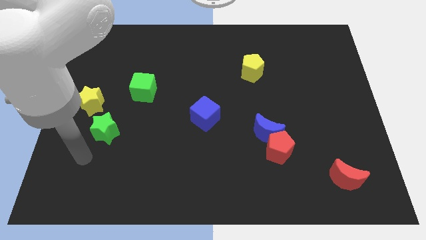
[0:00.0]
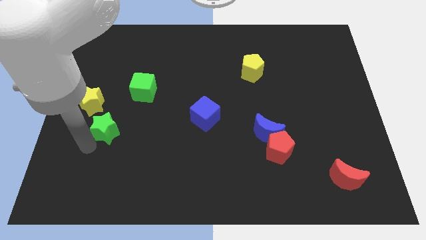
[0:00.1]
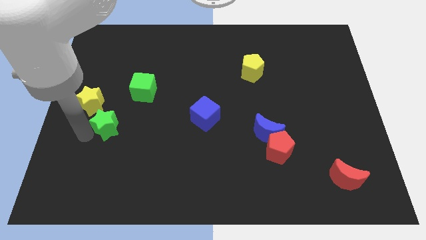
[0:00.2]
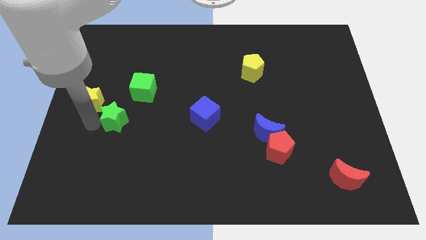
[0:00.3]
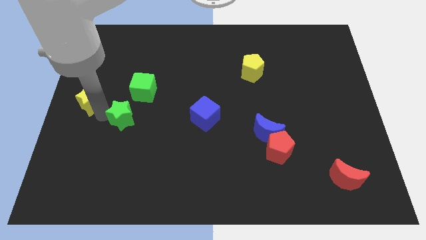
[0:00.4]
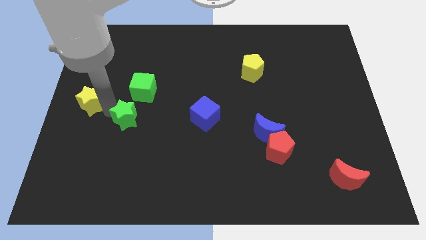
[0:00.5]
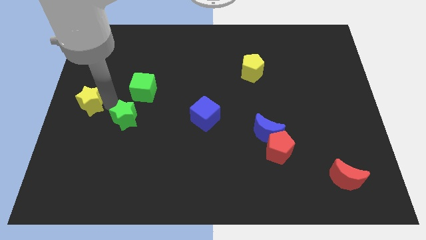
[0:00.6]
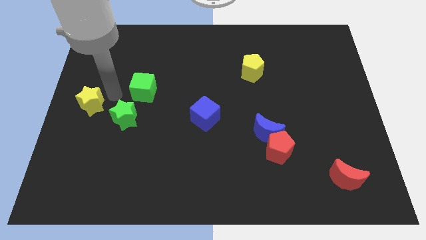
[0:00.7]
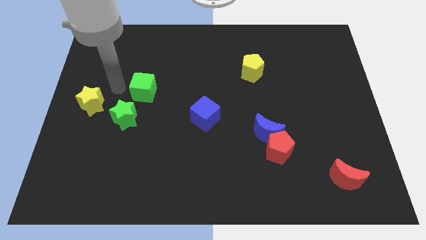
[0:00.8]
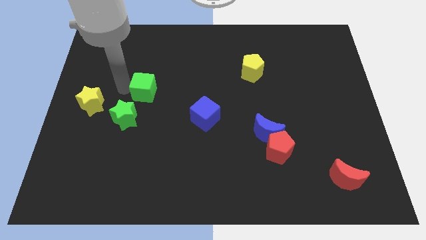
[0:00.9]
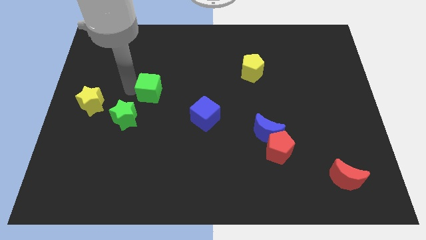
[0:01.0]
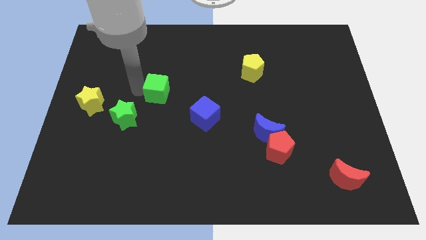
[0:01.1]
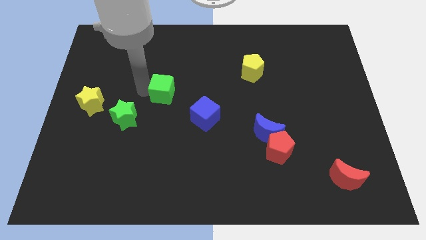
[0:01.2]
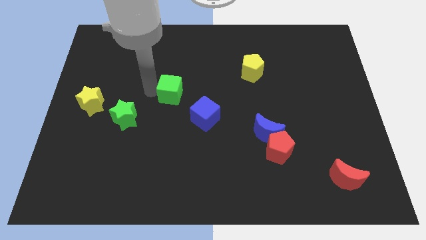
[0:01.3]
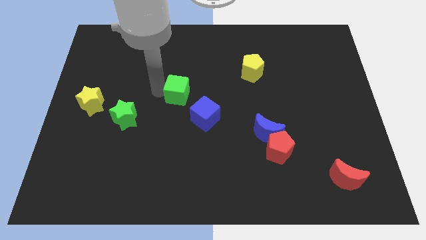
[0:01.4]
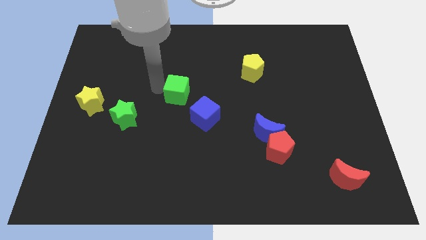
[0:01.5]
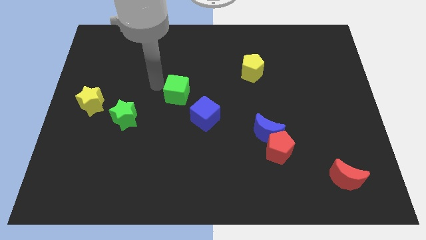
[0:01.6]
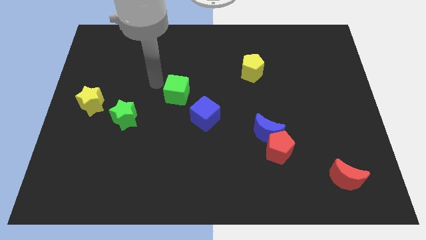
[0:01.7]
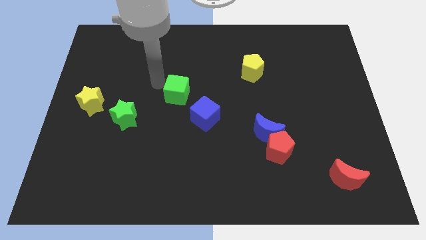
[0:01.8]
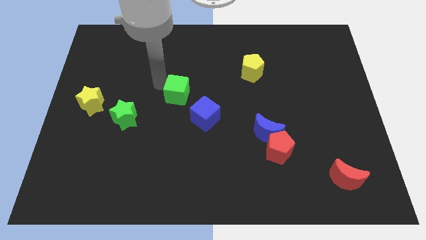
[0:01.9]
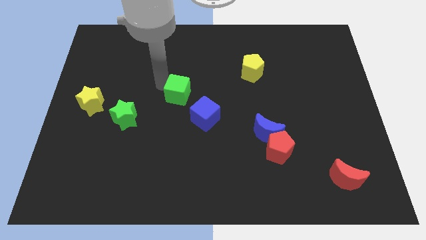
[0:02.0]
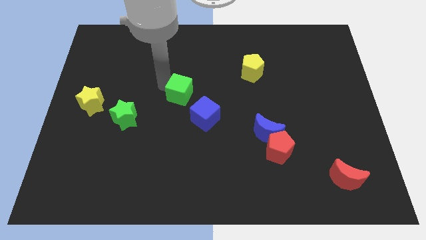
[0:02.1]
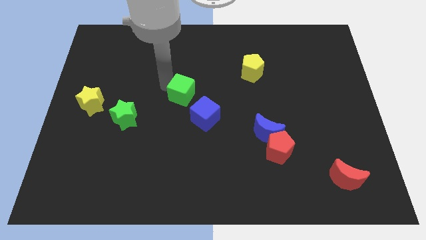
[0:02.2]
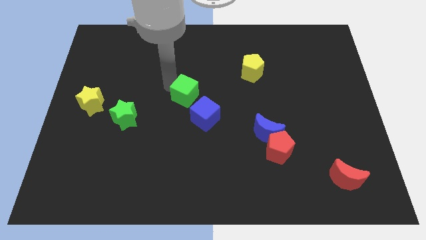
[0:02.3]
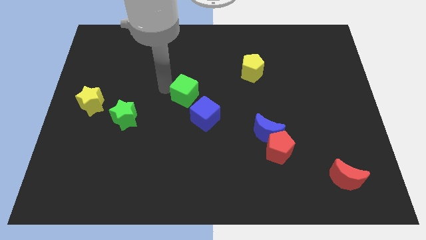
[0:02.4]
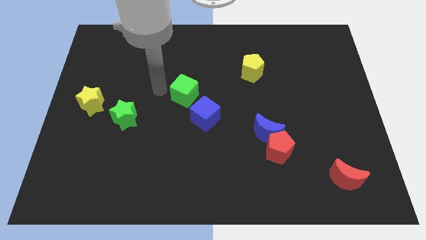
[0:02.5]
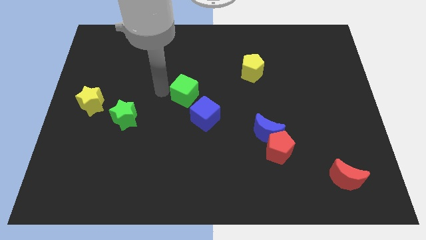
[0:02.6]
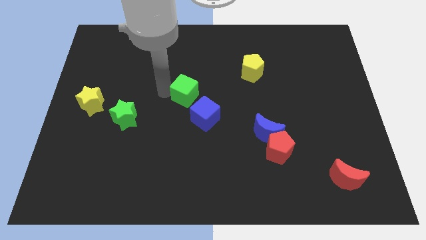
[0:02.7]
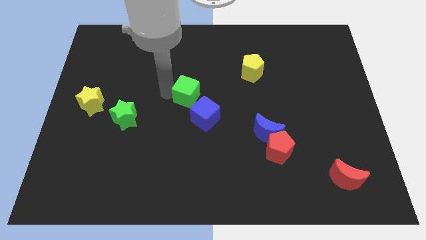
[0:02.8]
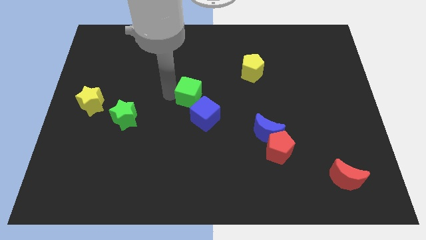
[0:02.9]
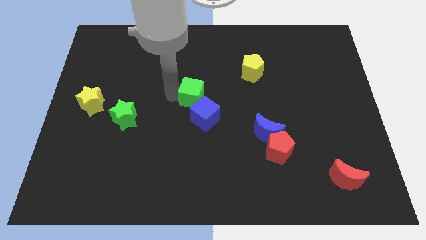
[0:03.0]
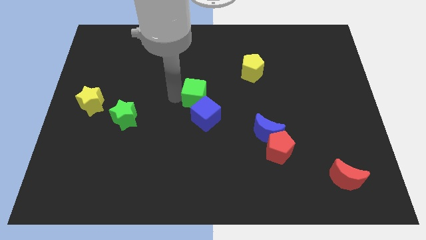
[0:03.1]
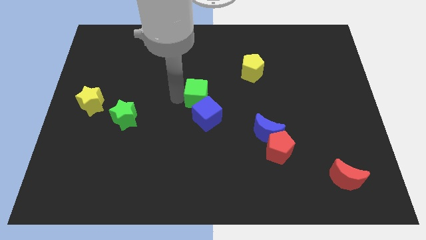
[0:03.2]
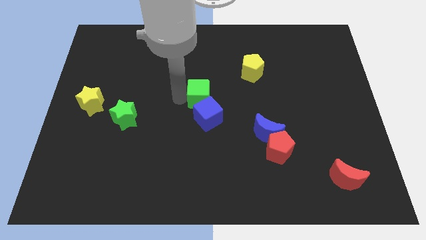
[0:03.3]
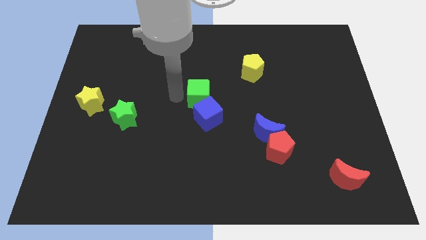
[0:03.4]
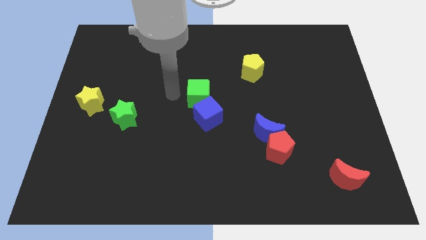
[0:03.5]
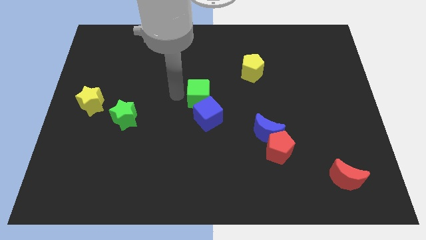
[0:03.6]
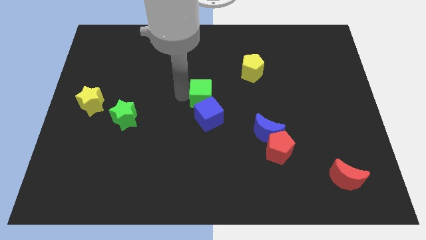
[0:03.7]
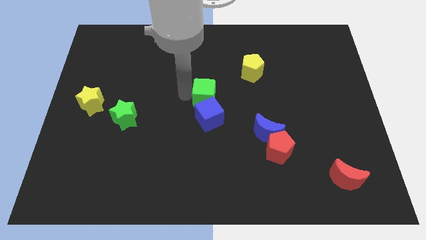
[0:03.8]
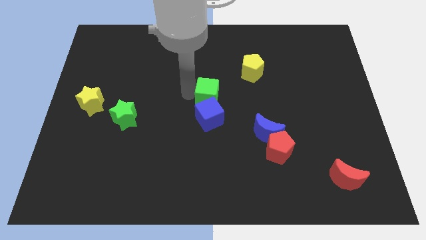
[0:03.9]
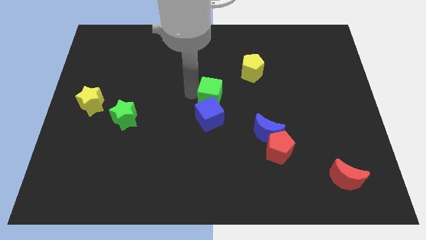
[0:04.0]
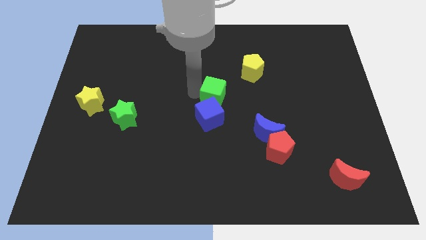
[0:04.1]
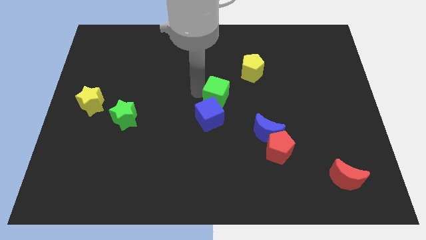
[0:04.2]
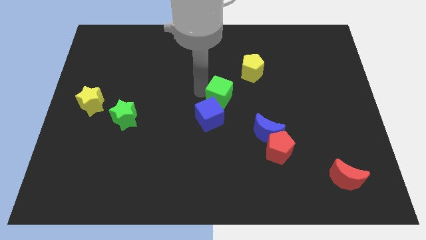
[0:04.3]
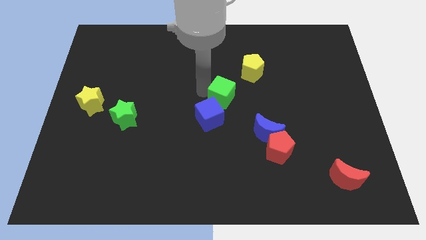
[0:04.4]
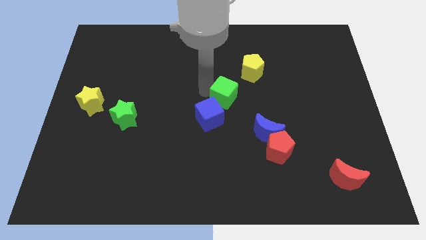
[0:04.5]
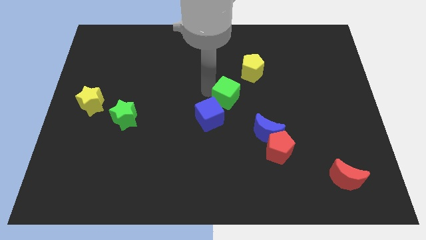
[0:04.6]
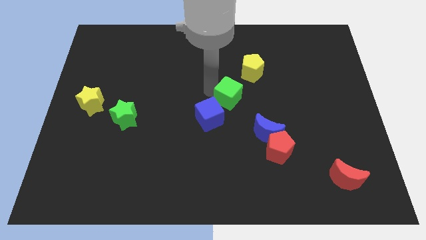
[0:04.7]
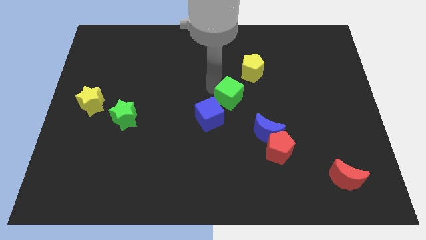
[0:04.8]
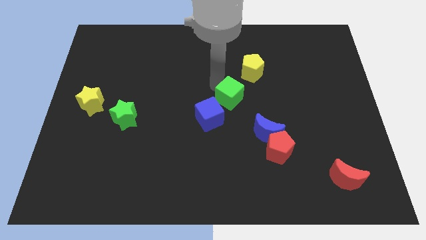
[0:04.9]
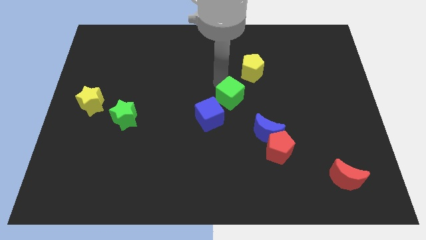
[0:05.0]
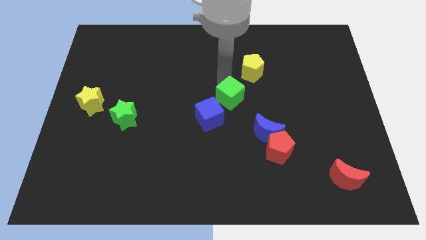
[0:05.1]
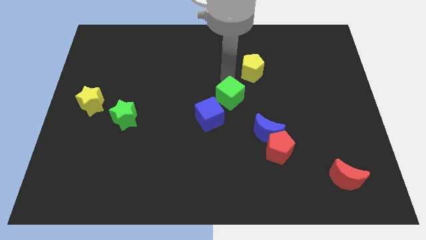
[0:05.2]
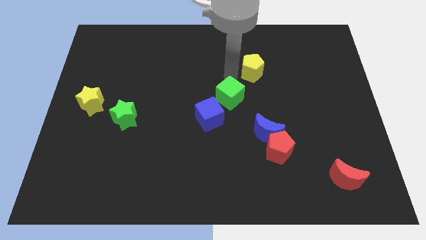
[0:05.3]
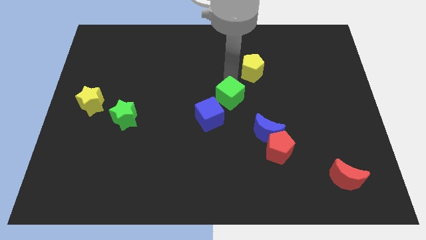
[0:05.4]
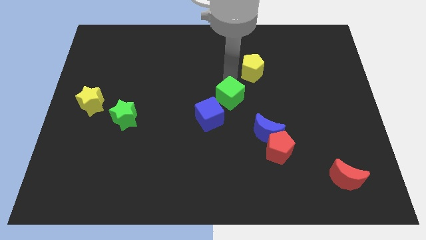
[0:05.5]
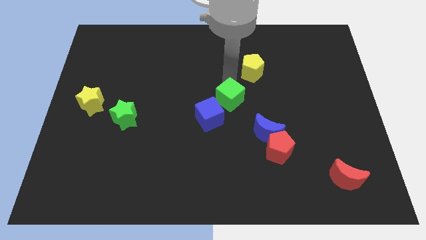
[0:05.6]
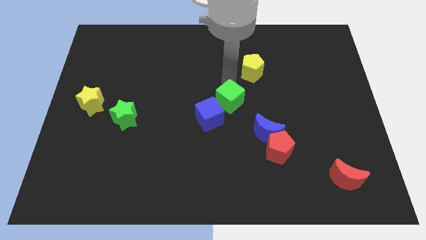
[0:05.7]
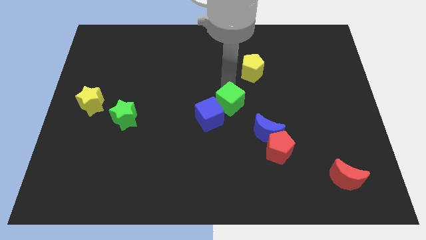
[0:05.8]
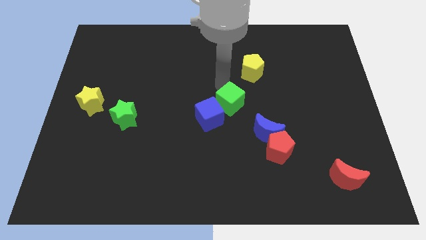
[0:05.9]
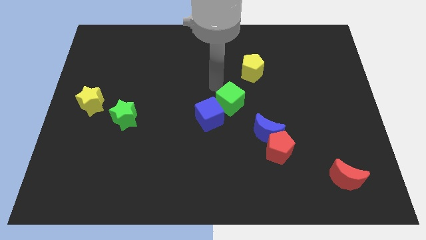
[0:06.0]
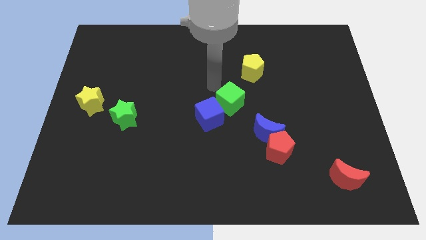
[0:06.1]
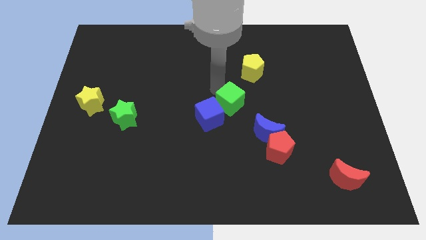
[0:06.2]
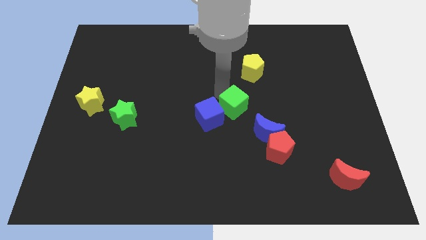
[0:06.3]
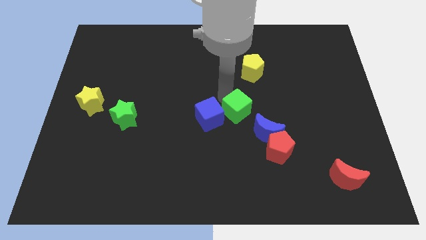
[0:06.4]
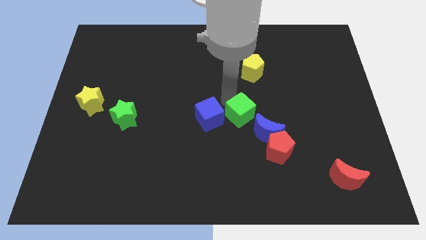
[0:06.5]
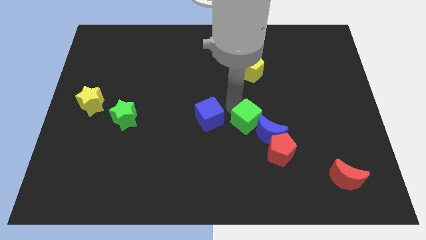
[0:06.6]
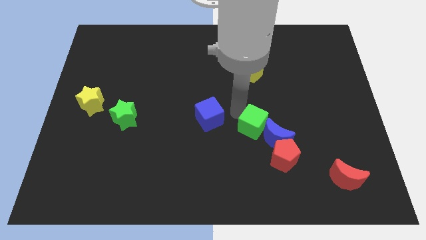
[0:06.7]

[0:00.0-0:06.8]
slide the green cube to the blue moon
